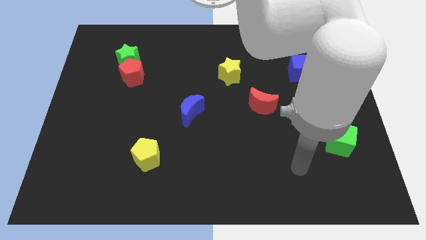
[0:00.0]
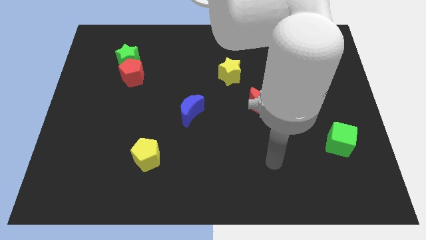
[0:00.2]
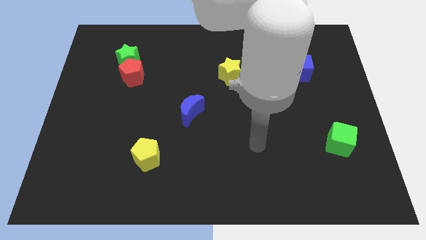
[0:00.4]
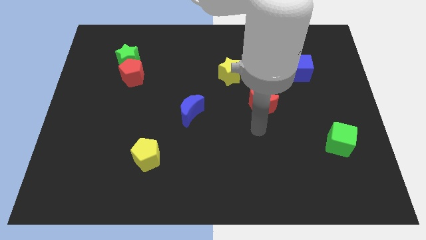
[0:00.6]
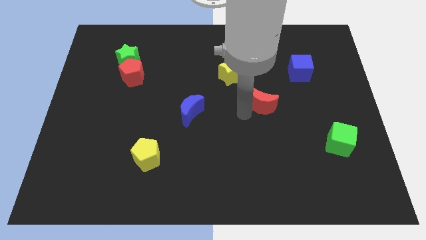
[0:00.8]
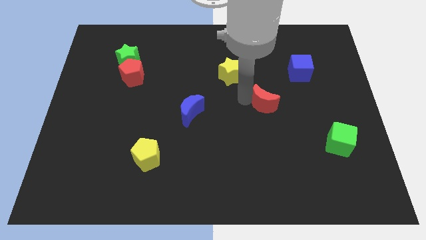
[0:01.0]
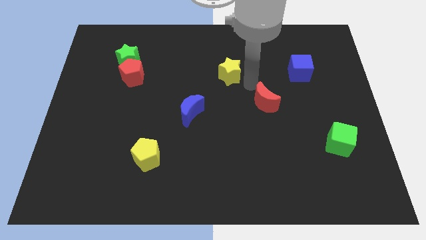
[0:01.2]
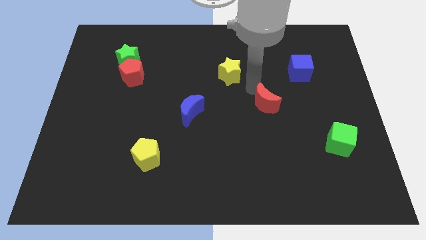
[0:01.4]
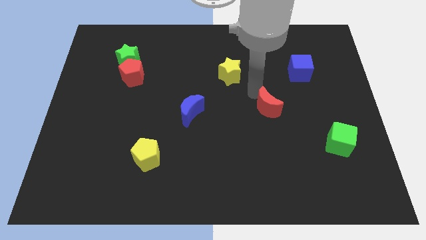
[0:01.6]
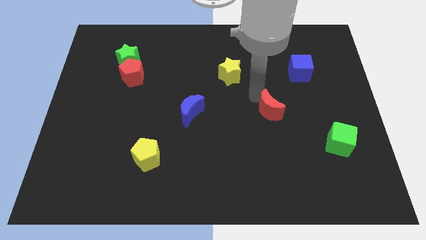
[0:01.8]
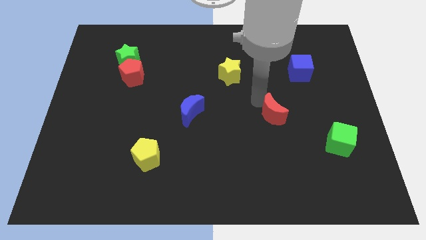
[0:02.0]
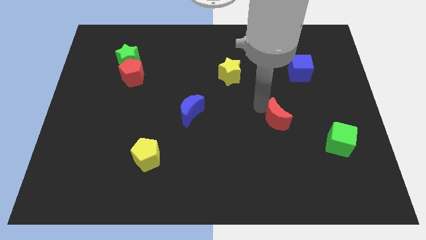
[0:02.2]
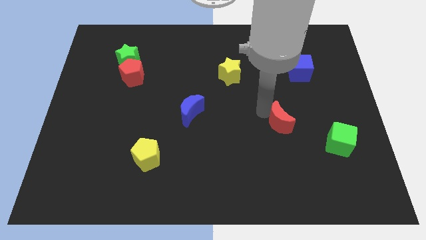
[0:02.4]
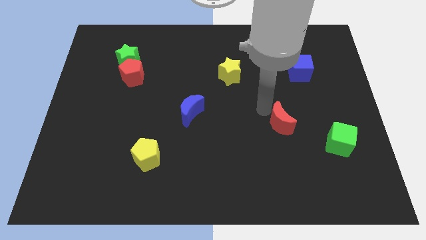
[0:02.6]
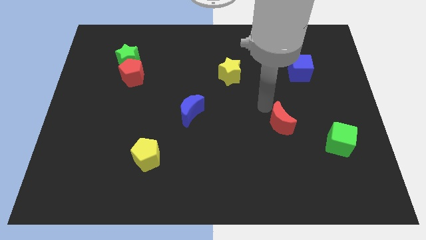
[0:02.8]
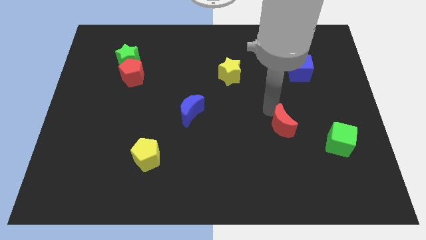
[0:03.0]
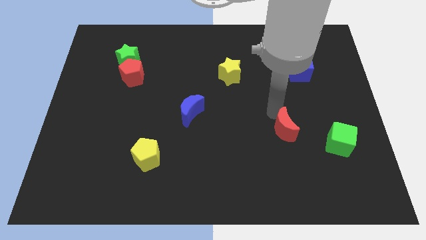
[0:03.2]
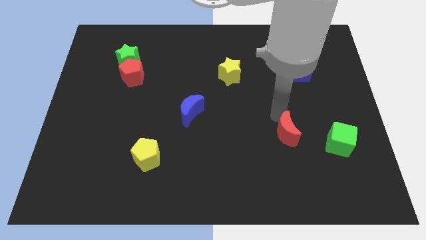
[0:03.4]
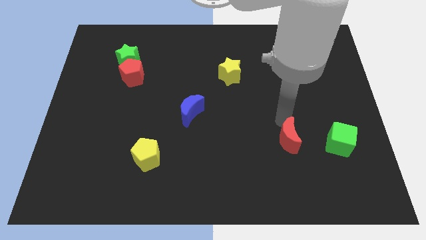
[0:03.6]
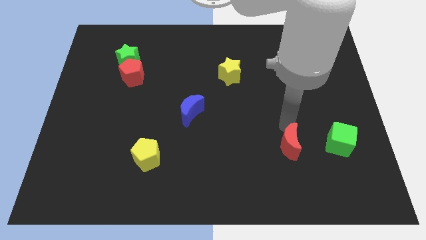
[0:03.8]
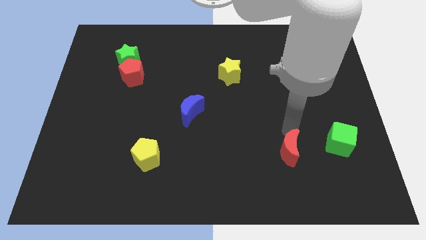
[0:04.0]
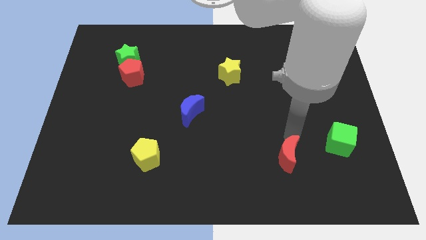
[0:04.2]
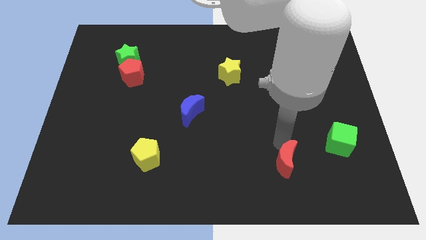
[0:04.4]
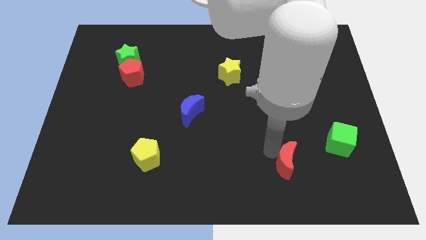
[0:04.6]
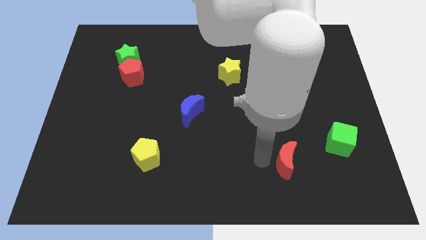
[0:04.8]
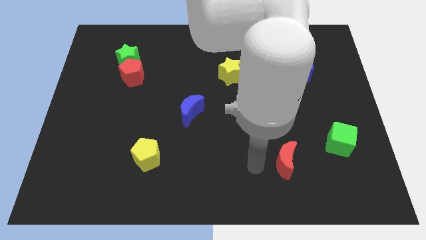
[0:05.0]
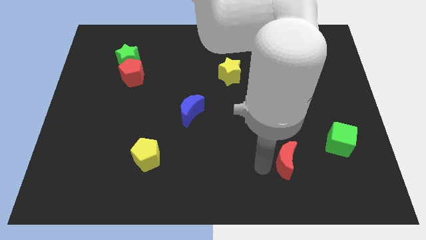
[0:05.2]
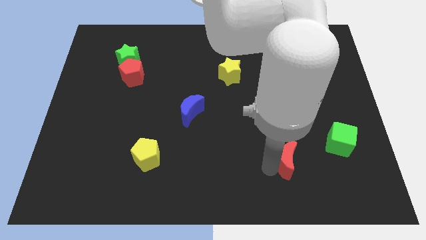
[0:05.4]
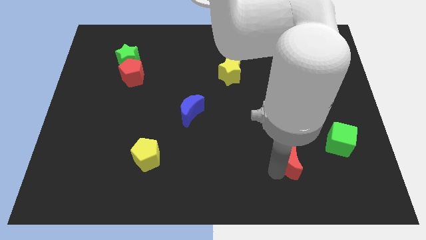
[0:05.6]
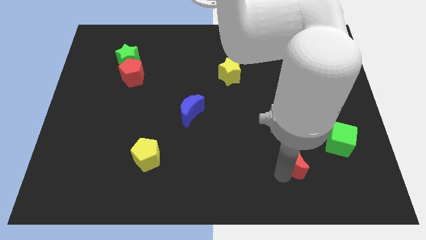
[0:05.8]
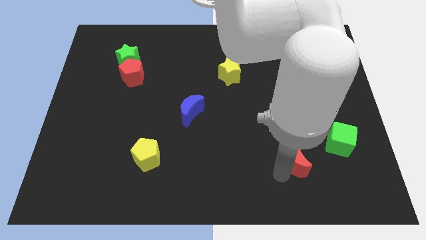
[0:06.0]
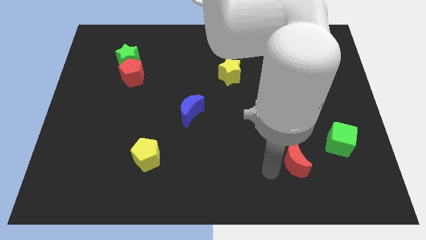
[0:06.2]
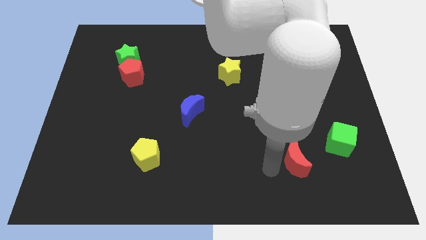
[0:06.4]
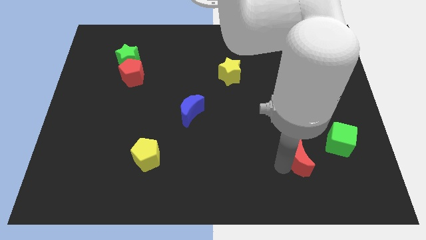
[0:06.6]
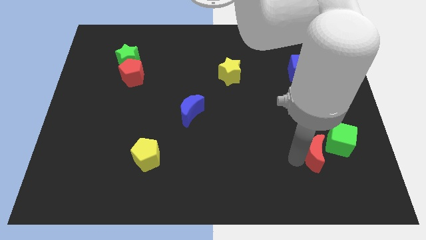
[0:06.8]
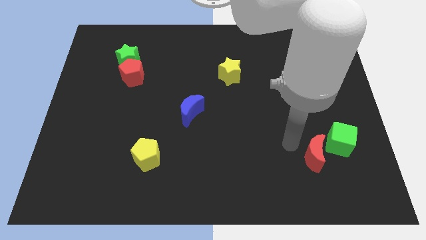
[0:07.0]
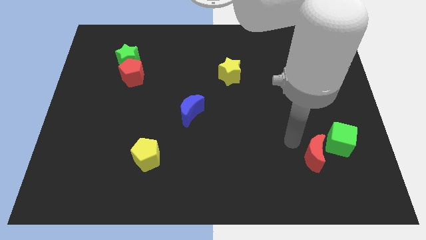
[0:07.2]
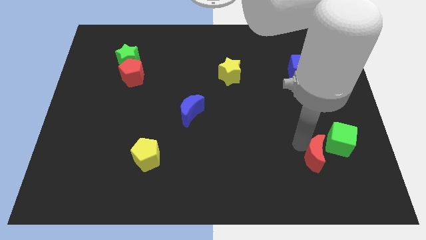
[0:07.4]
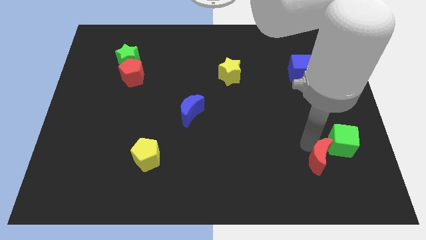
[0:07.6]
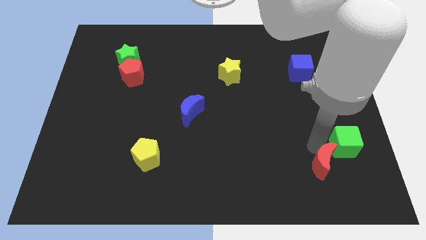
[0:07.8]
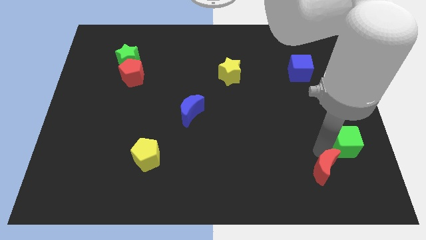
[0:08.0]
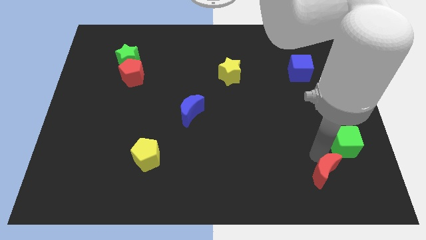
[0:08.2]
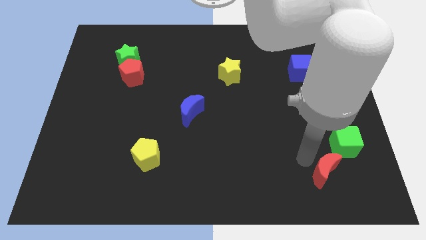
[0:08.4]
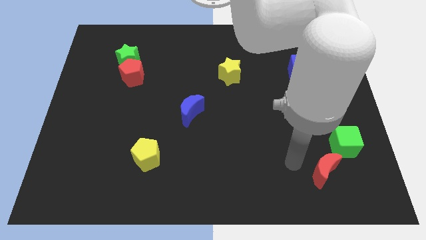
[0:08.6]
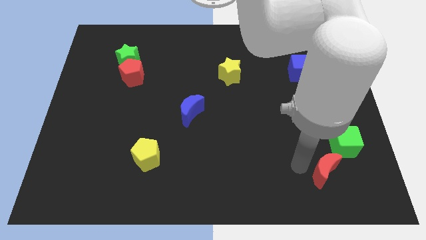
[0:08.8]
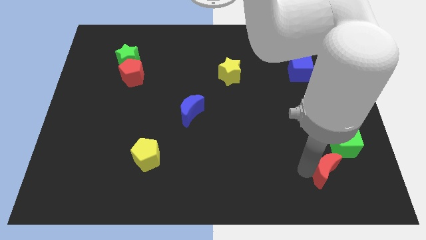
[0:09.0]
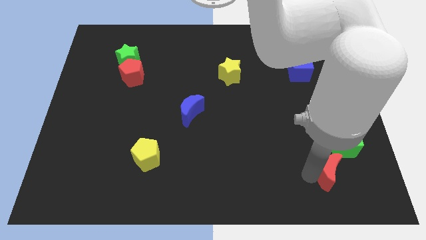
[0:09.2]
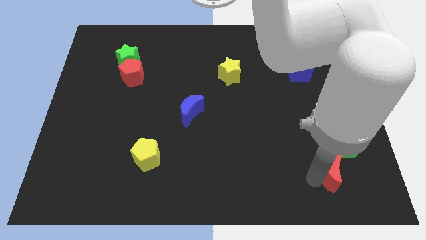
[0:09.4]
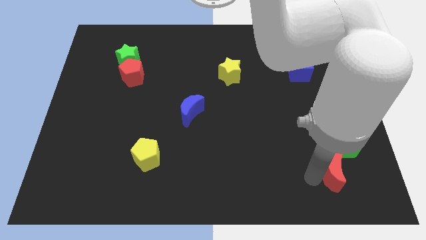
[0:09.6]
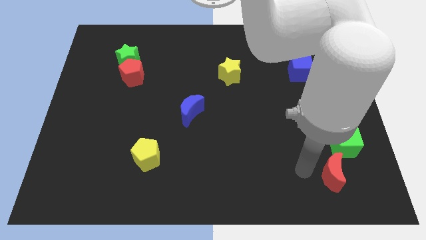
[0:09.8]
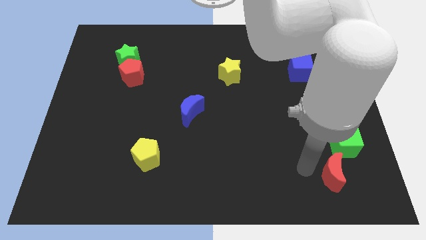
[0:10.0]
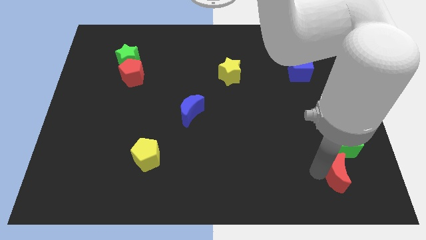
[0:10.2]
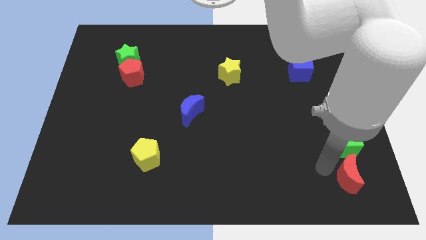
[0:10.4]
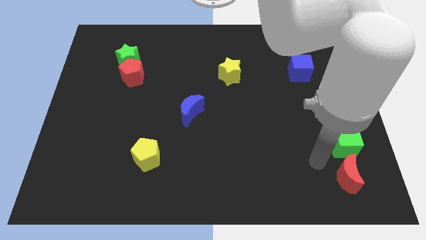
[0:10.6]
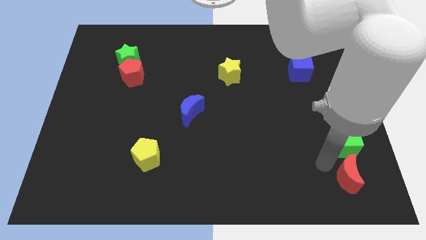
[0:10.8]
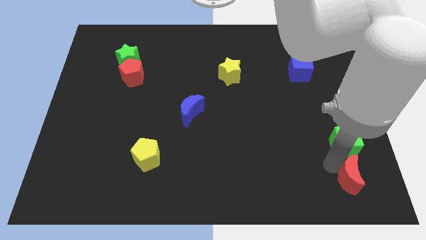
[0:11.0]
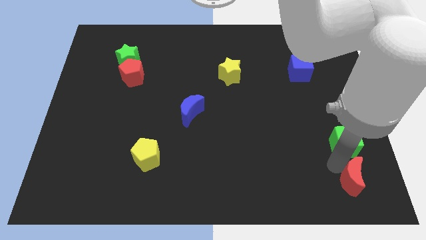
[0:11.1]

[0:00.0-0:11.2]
push the red moon to the bottom right
